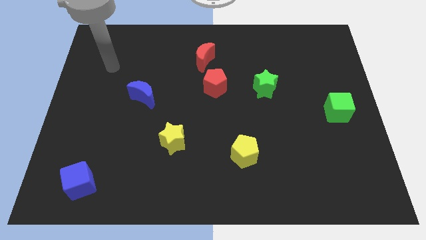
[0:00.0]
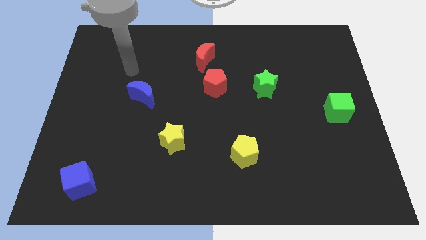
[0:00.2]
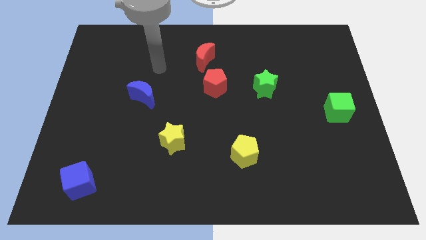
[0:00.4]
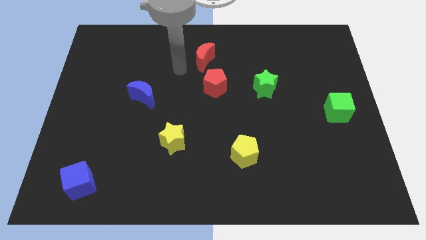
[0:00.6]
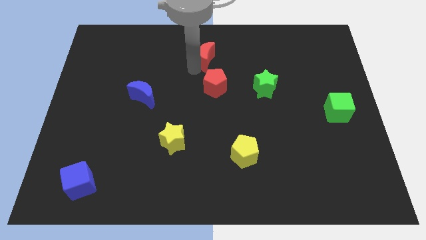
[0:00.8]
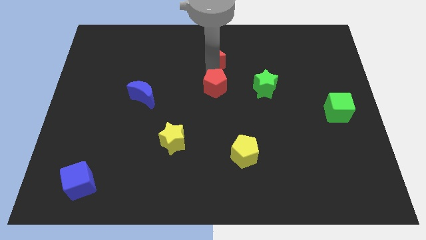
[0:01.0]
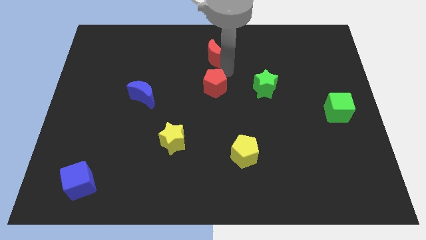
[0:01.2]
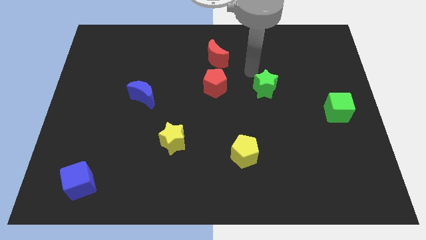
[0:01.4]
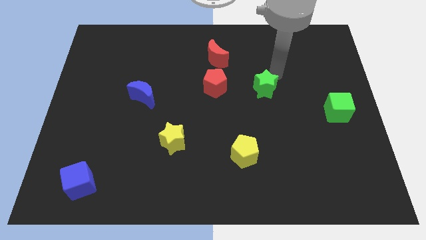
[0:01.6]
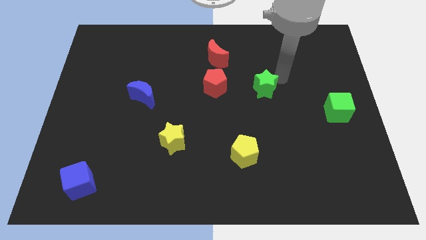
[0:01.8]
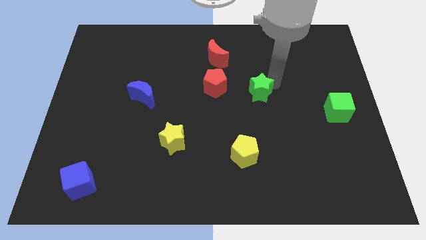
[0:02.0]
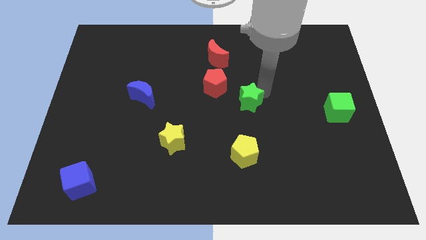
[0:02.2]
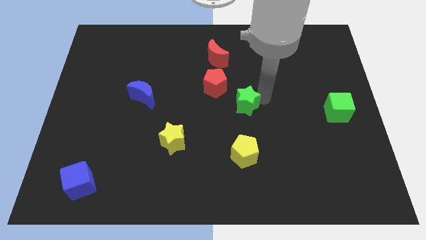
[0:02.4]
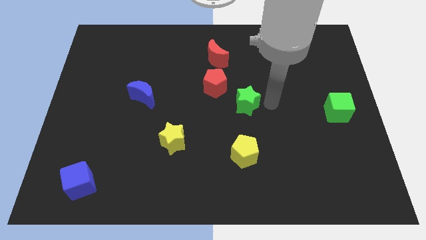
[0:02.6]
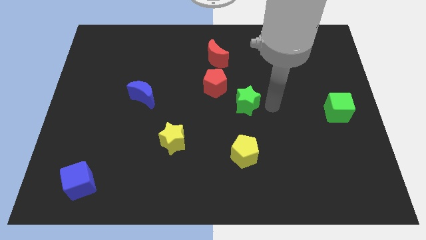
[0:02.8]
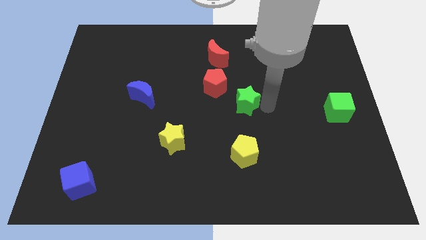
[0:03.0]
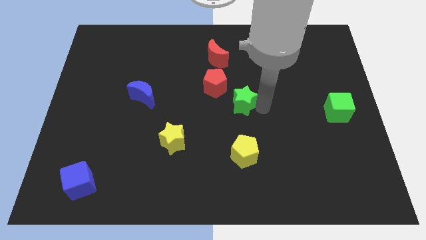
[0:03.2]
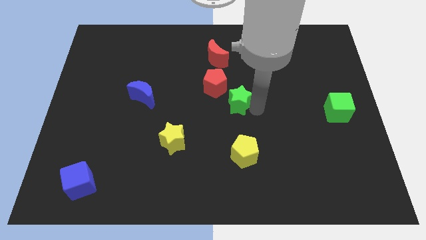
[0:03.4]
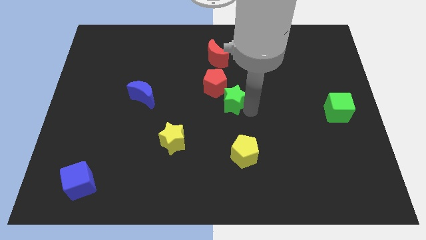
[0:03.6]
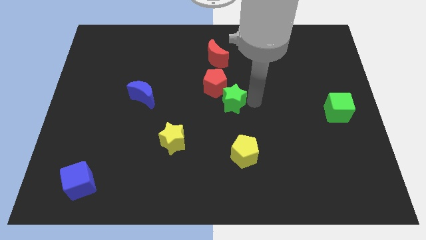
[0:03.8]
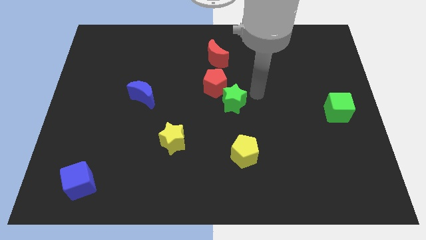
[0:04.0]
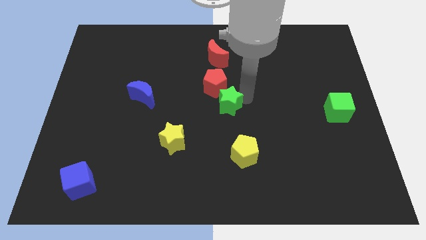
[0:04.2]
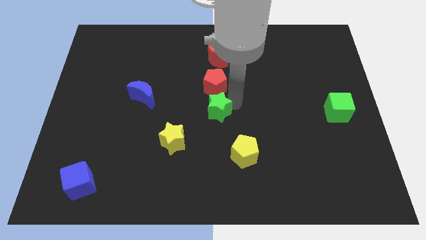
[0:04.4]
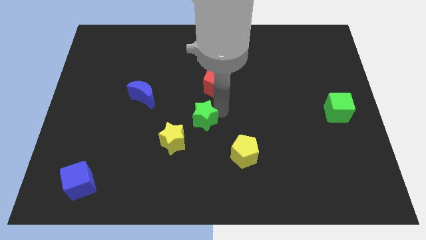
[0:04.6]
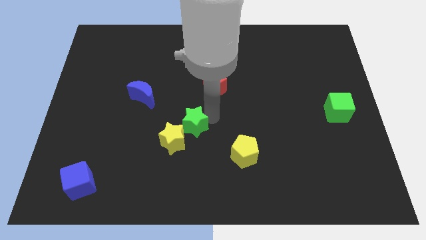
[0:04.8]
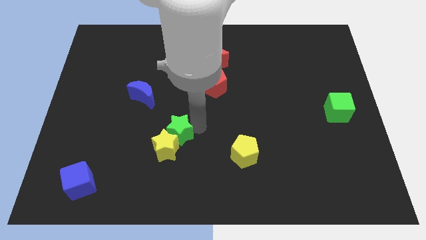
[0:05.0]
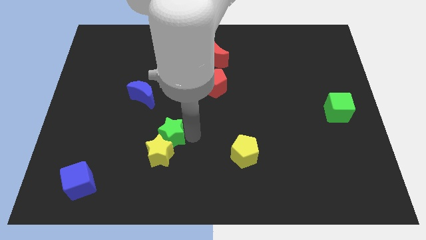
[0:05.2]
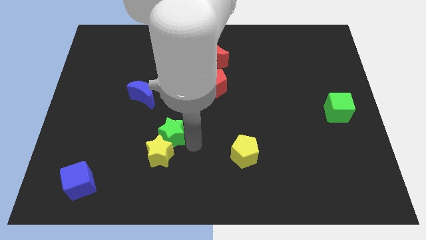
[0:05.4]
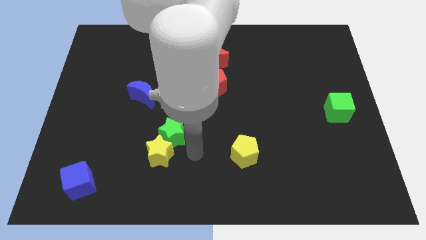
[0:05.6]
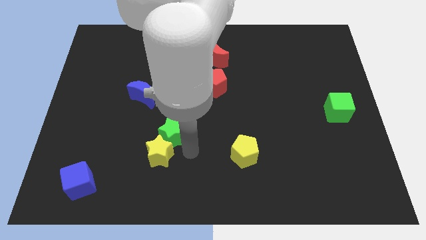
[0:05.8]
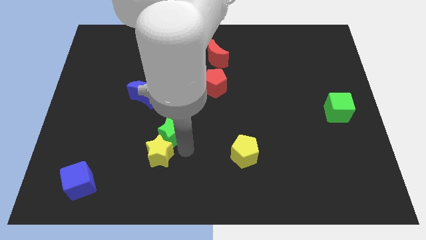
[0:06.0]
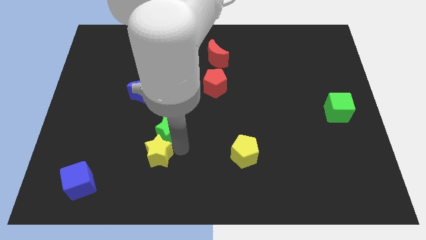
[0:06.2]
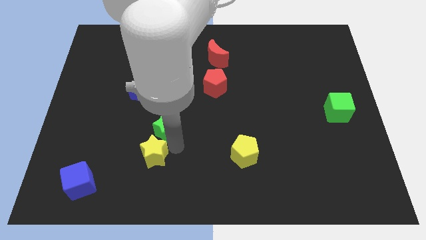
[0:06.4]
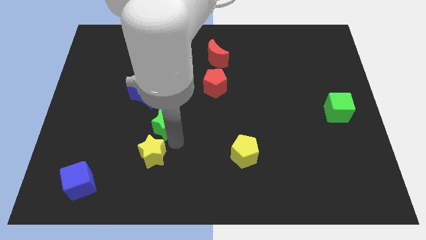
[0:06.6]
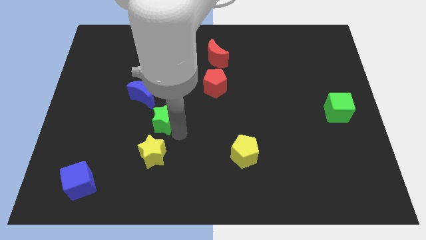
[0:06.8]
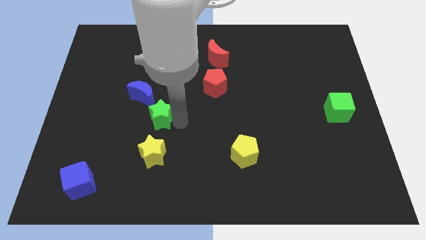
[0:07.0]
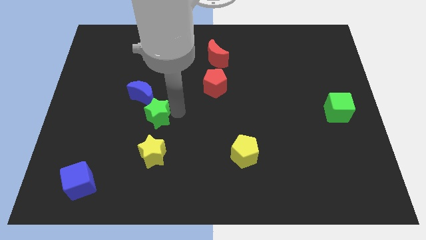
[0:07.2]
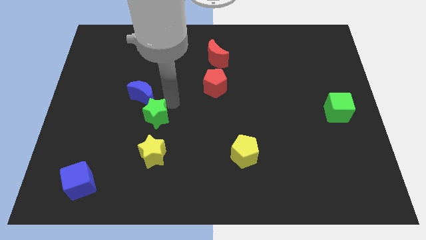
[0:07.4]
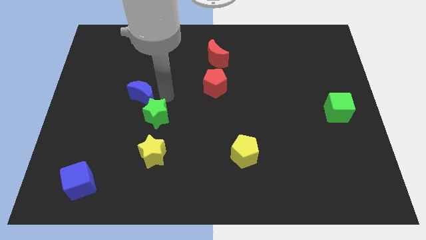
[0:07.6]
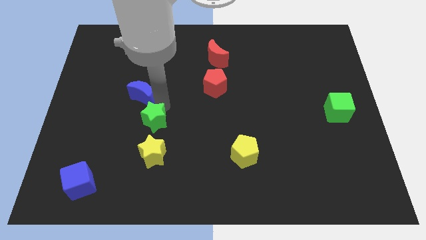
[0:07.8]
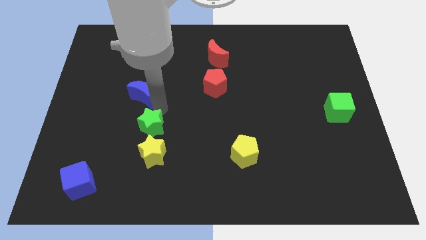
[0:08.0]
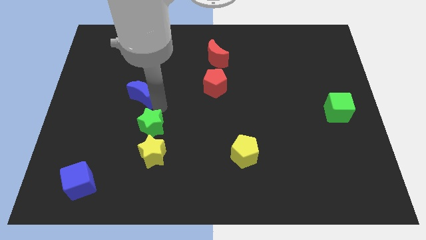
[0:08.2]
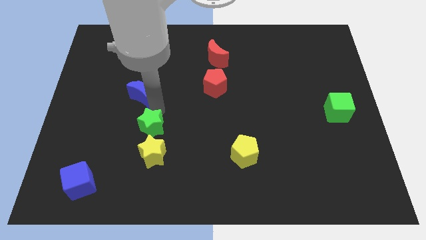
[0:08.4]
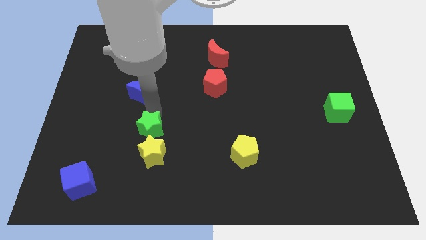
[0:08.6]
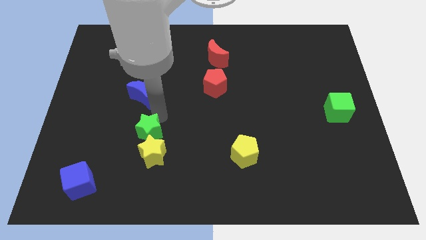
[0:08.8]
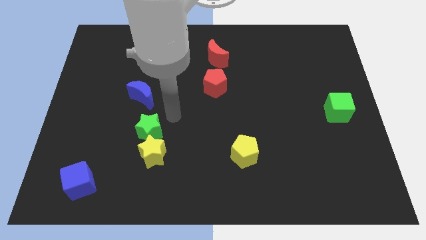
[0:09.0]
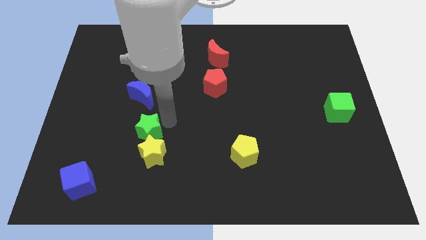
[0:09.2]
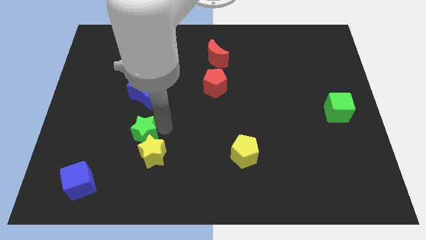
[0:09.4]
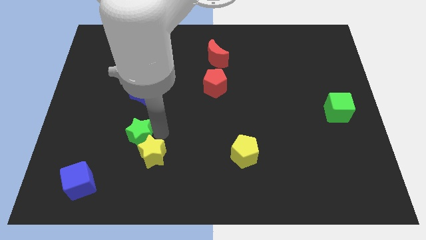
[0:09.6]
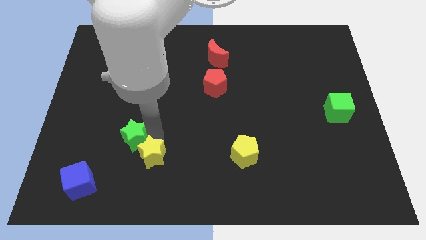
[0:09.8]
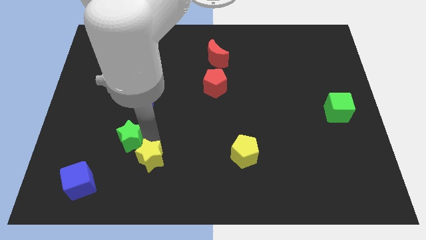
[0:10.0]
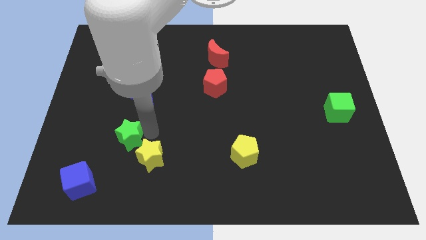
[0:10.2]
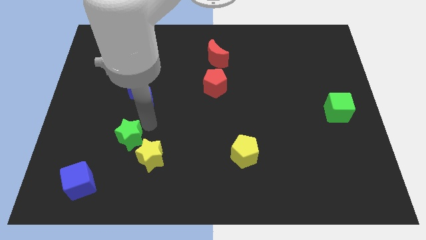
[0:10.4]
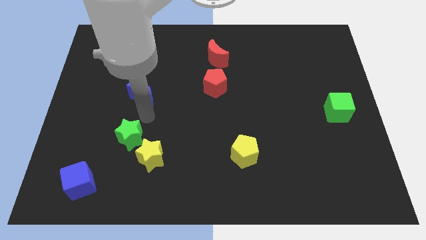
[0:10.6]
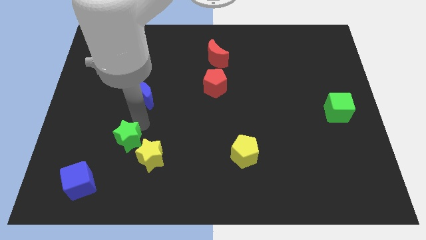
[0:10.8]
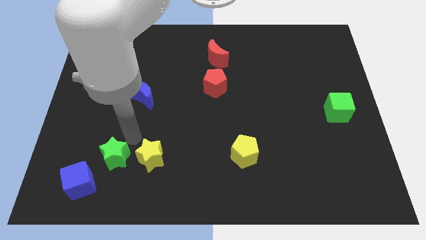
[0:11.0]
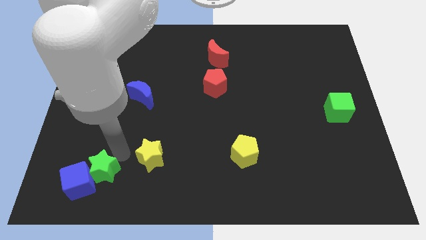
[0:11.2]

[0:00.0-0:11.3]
slide the green star towards the blue cube

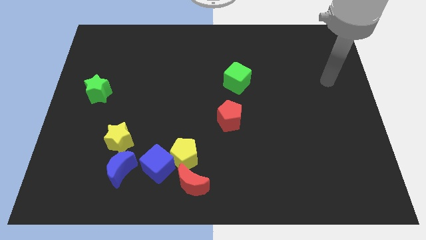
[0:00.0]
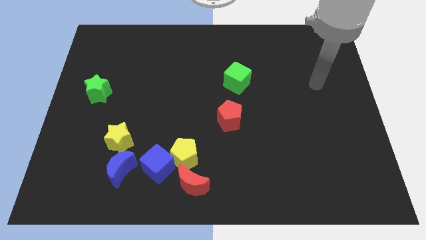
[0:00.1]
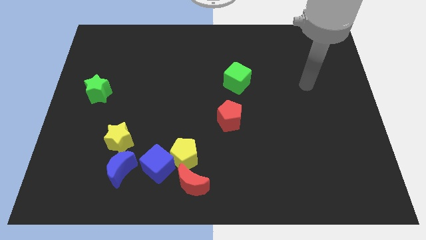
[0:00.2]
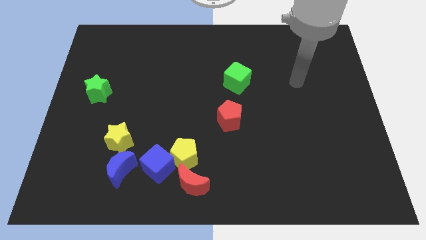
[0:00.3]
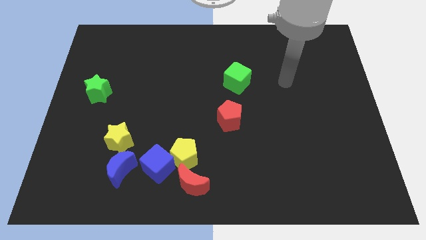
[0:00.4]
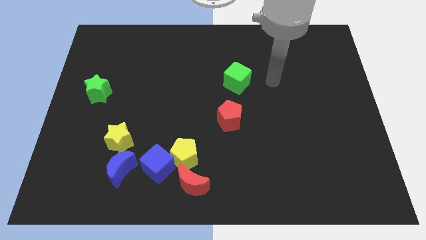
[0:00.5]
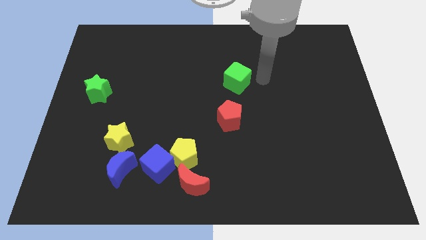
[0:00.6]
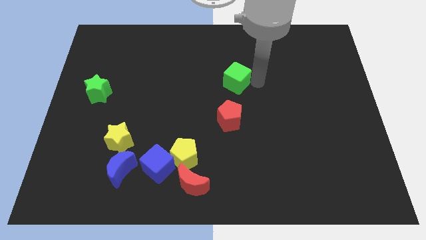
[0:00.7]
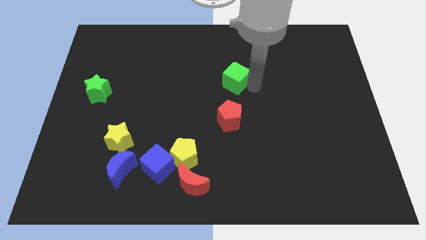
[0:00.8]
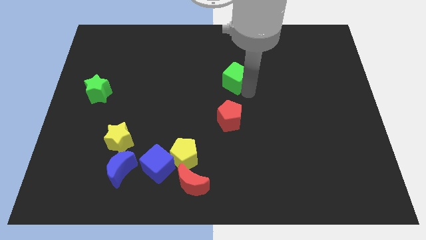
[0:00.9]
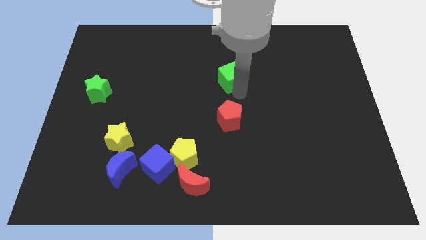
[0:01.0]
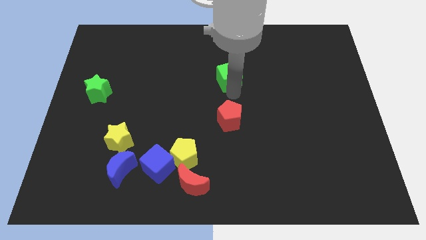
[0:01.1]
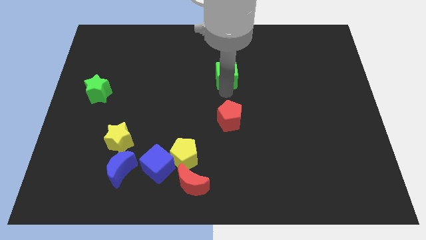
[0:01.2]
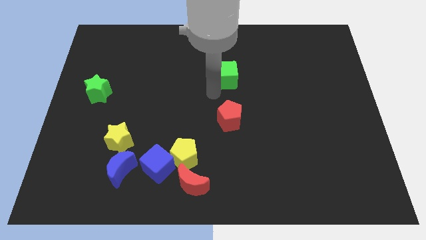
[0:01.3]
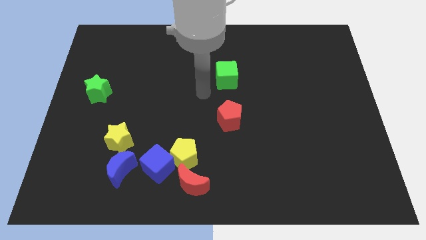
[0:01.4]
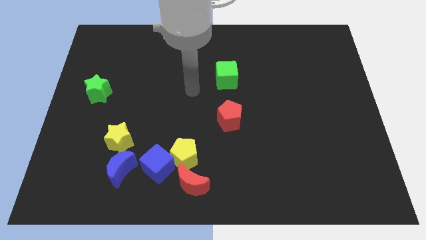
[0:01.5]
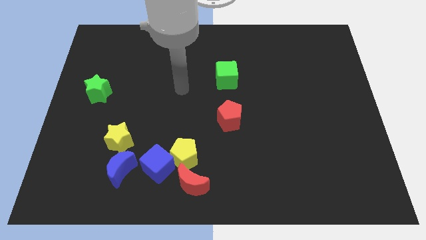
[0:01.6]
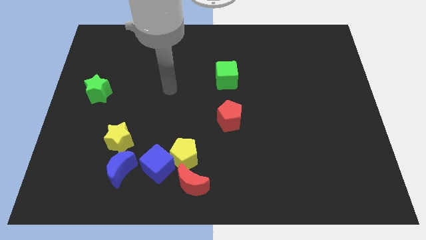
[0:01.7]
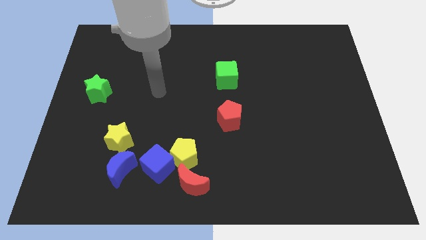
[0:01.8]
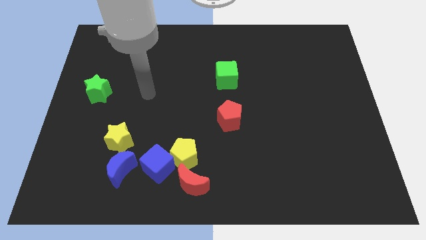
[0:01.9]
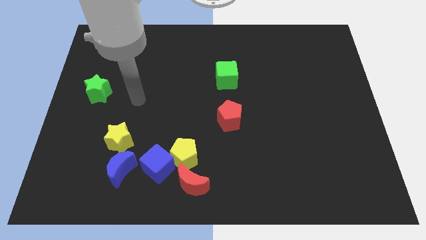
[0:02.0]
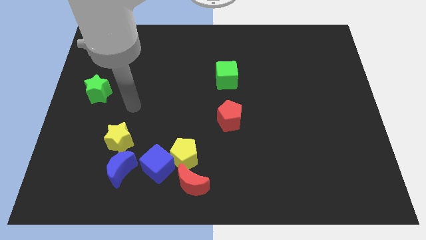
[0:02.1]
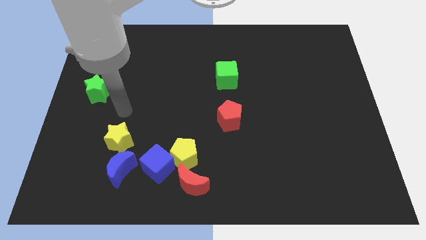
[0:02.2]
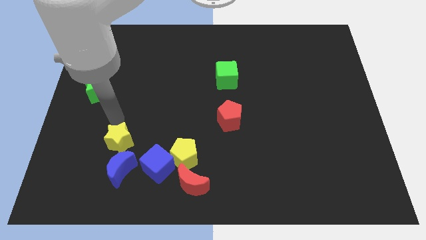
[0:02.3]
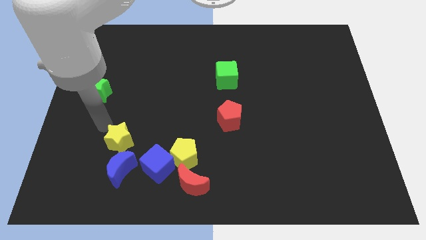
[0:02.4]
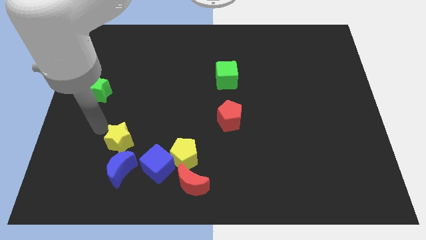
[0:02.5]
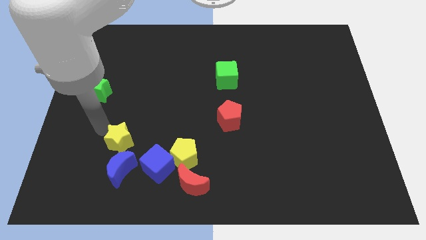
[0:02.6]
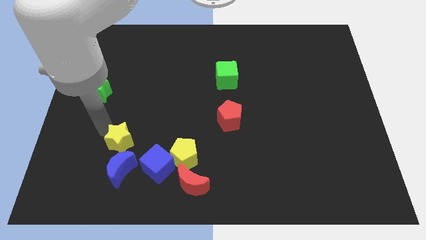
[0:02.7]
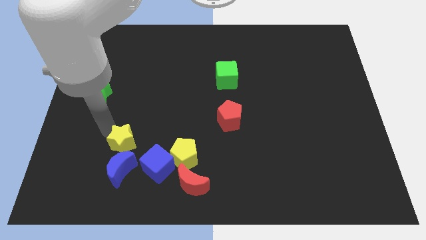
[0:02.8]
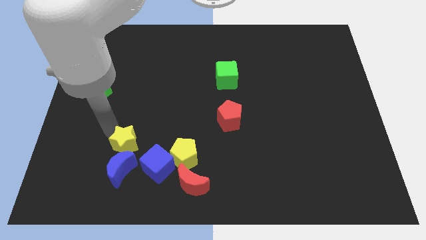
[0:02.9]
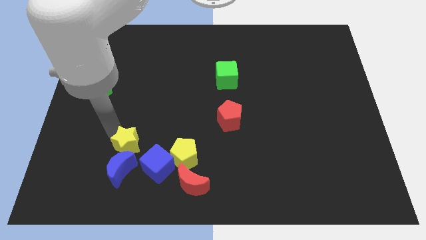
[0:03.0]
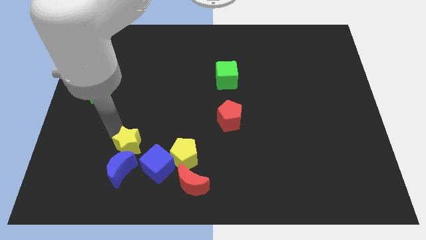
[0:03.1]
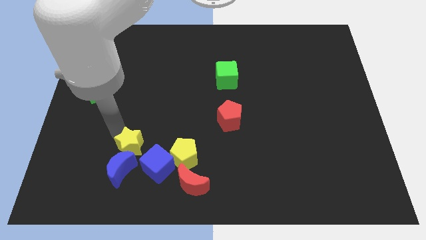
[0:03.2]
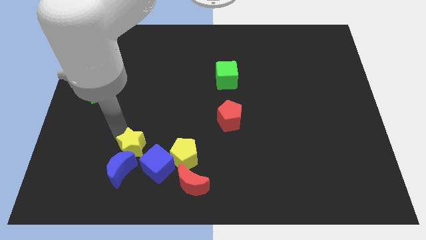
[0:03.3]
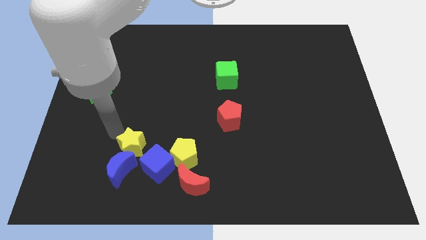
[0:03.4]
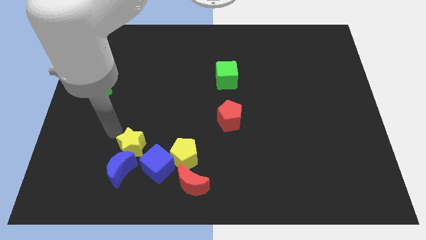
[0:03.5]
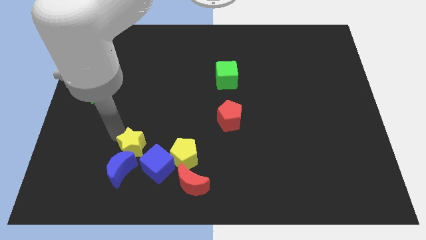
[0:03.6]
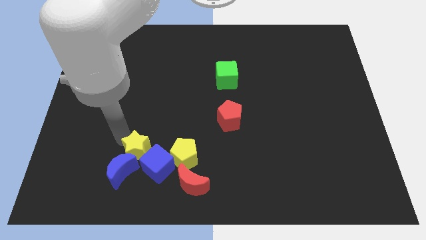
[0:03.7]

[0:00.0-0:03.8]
push the yellow star close to the blue cube
